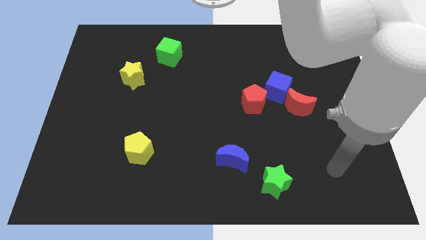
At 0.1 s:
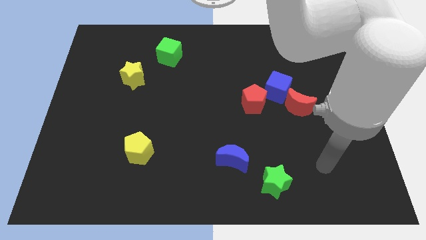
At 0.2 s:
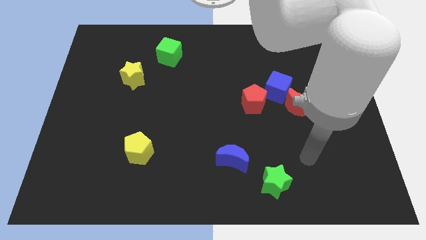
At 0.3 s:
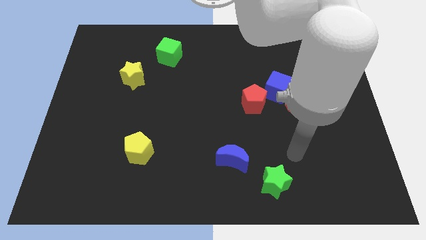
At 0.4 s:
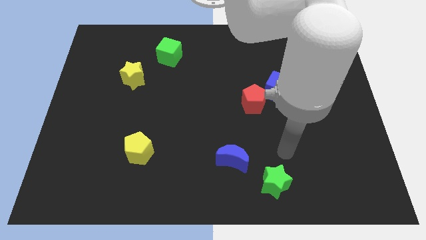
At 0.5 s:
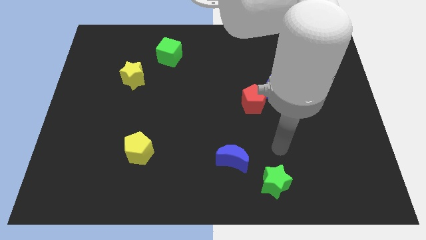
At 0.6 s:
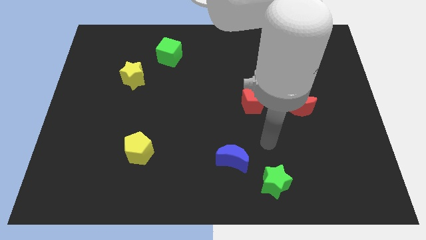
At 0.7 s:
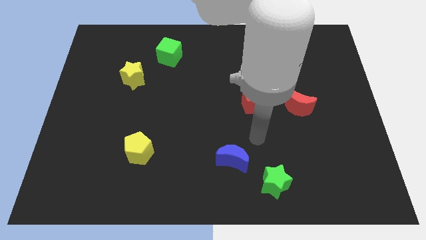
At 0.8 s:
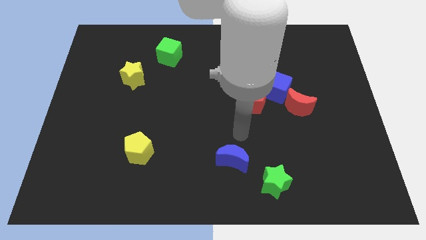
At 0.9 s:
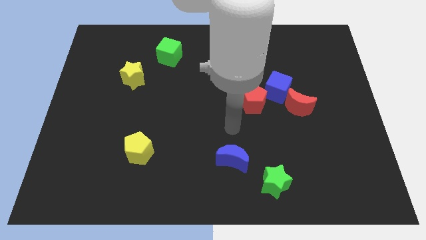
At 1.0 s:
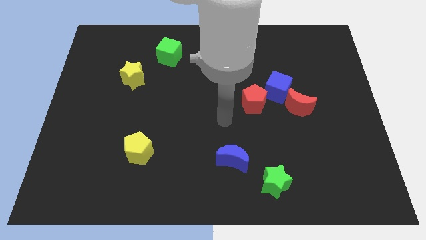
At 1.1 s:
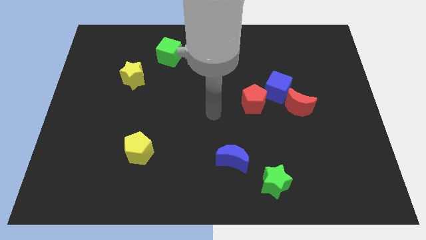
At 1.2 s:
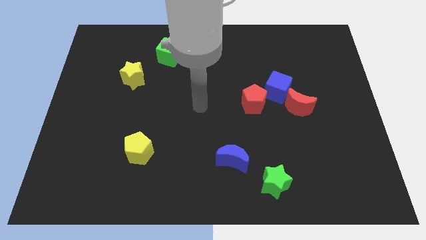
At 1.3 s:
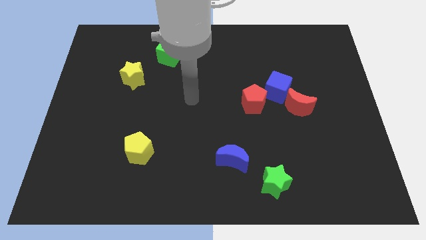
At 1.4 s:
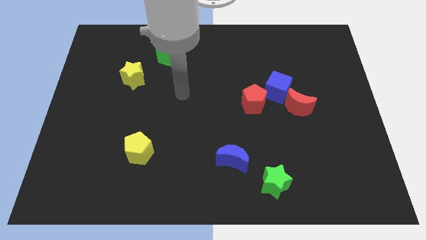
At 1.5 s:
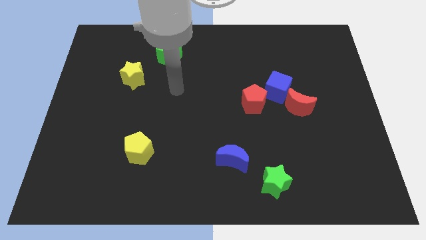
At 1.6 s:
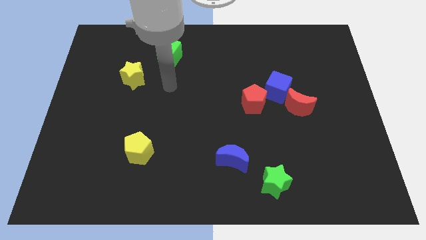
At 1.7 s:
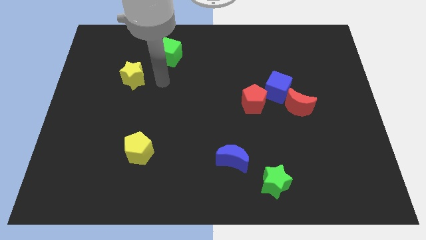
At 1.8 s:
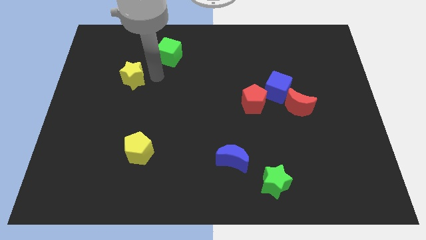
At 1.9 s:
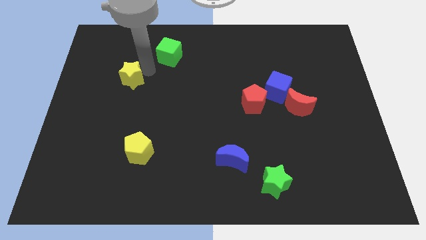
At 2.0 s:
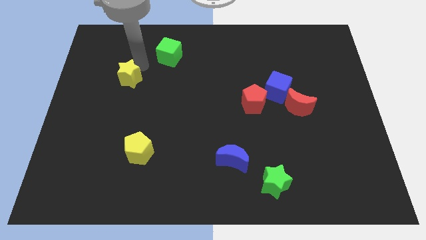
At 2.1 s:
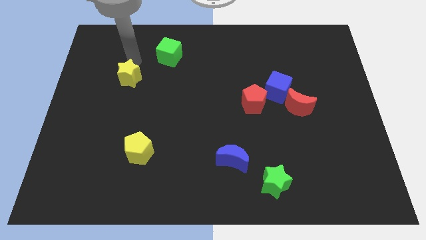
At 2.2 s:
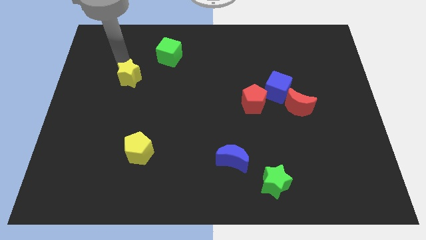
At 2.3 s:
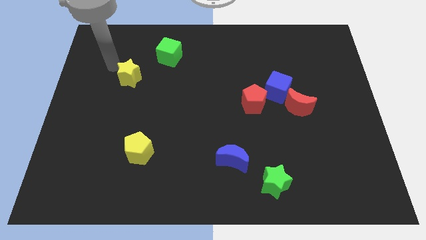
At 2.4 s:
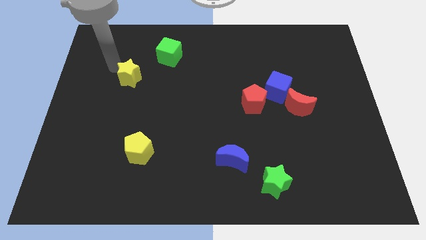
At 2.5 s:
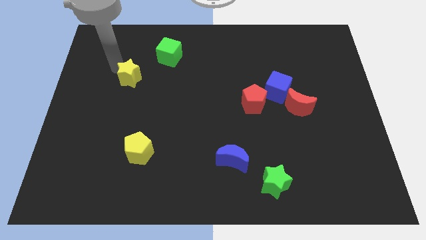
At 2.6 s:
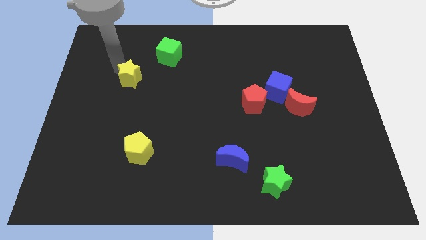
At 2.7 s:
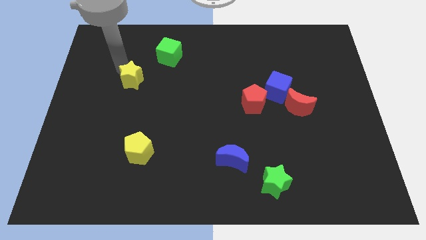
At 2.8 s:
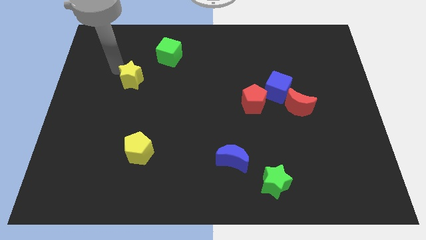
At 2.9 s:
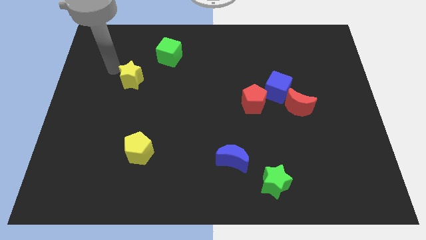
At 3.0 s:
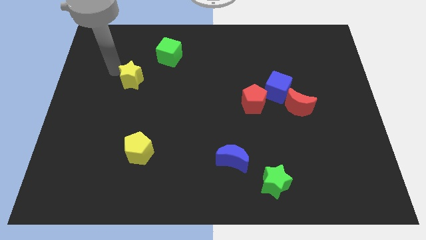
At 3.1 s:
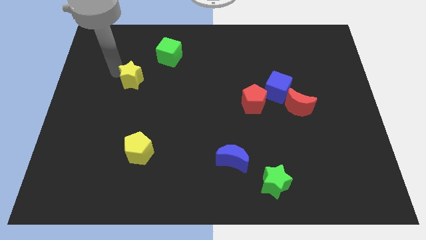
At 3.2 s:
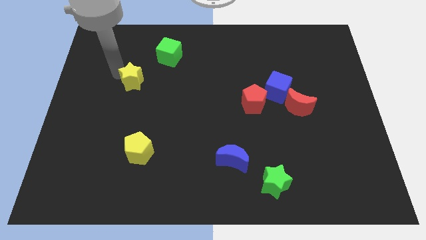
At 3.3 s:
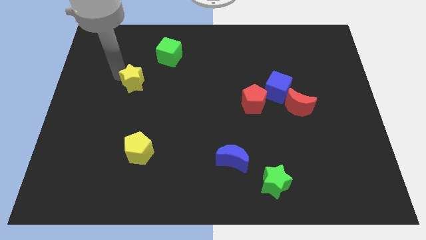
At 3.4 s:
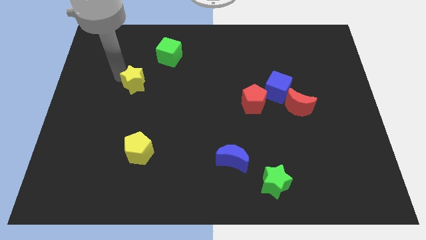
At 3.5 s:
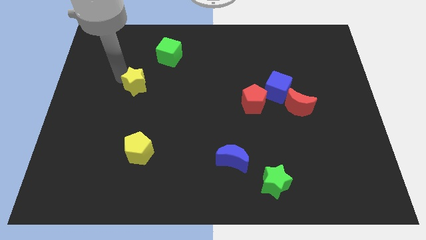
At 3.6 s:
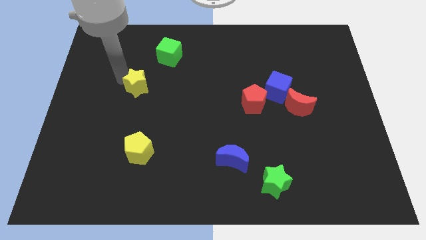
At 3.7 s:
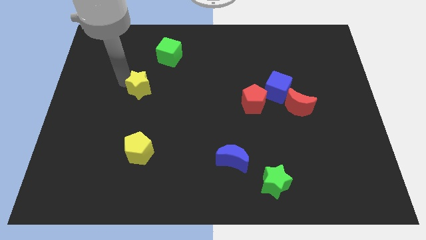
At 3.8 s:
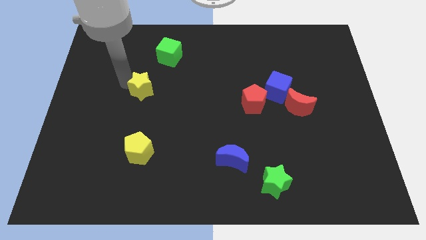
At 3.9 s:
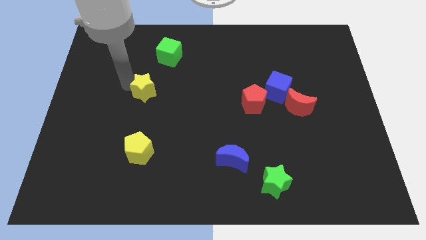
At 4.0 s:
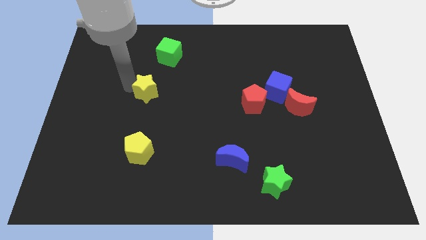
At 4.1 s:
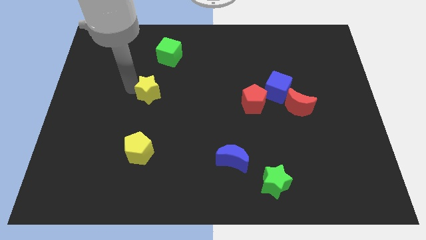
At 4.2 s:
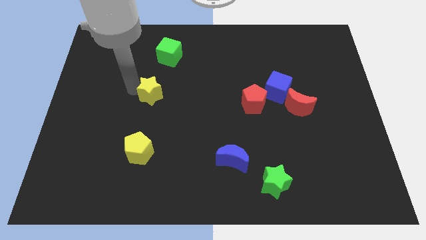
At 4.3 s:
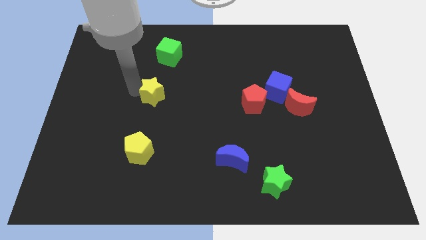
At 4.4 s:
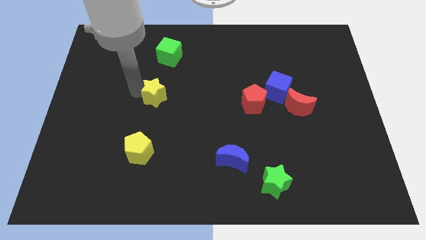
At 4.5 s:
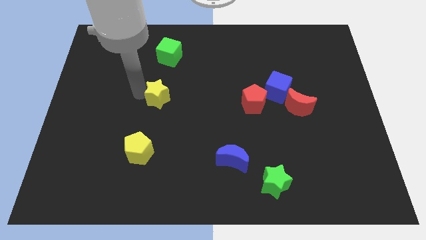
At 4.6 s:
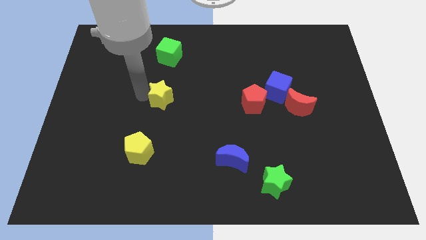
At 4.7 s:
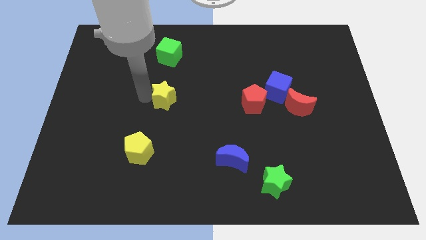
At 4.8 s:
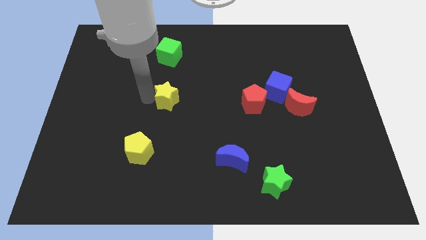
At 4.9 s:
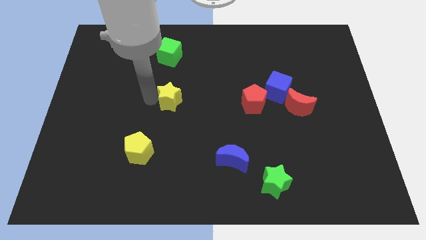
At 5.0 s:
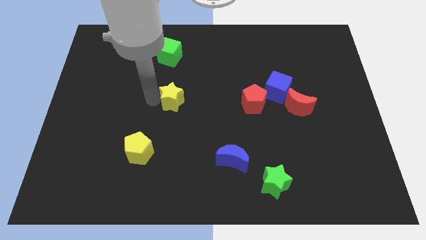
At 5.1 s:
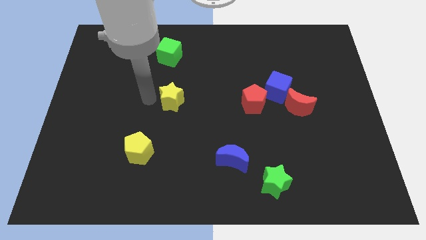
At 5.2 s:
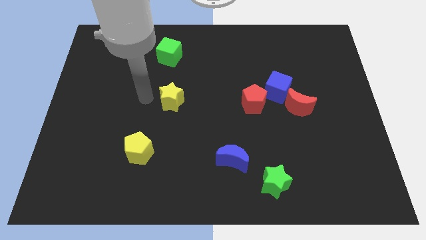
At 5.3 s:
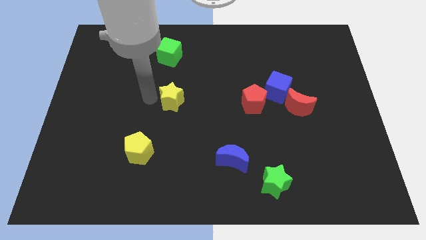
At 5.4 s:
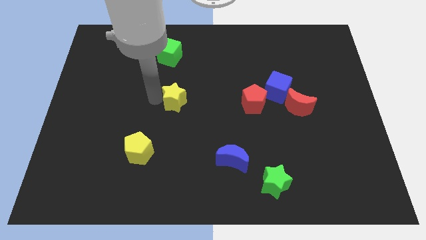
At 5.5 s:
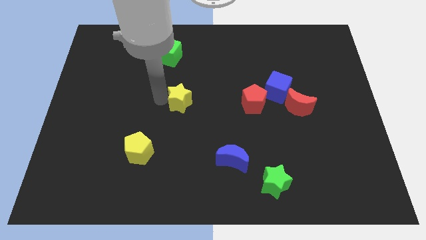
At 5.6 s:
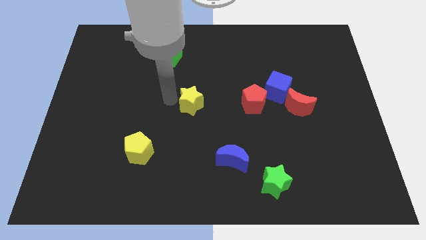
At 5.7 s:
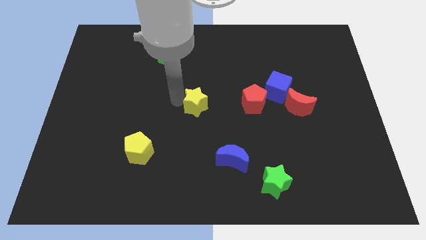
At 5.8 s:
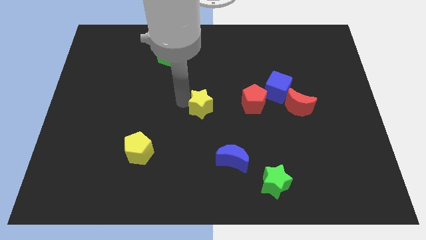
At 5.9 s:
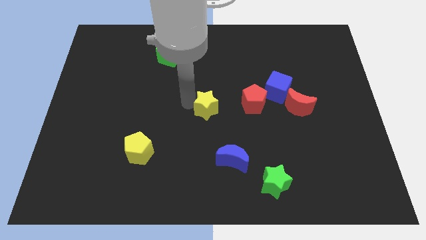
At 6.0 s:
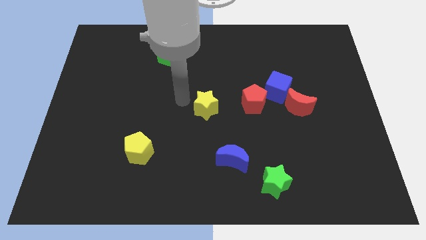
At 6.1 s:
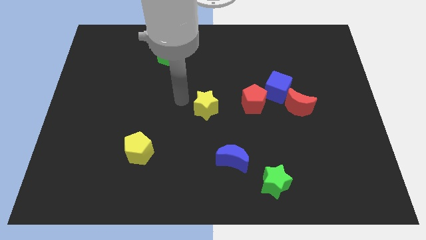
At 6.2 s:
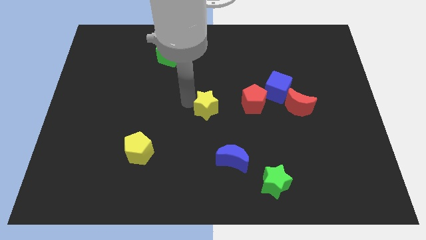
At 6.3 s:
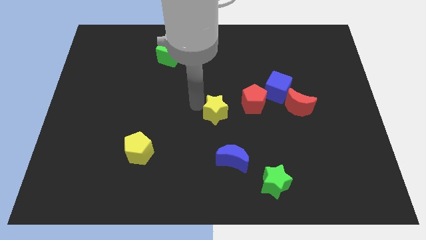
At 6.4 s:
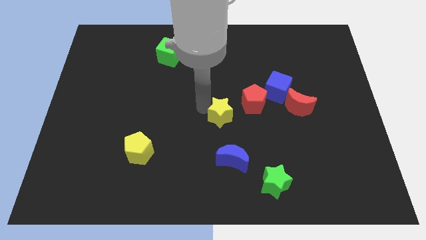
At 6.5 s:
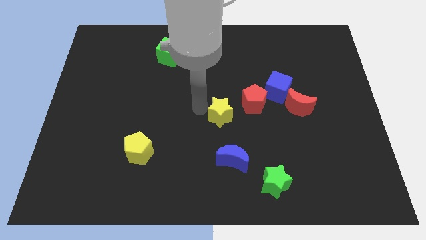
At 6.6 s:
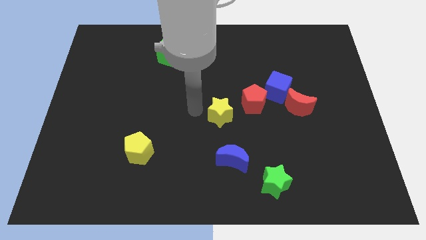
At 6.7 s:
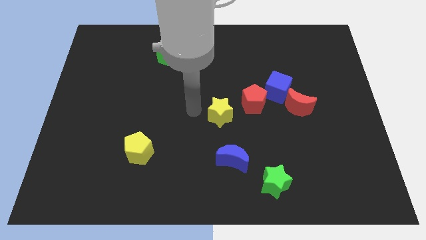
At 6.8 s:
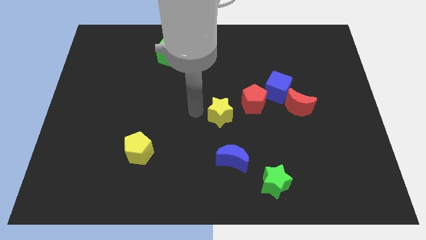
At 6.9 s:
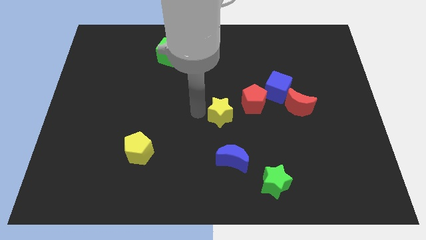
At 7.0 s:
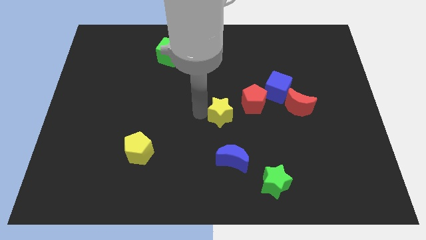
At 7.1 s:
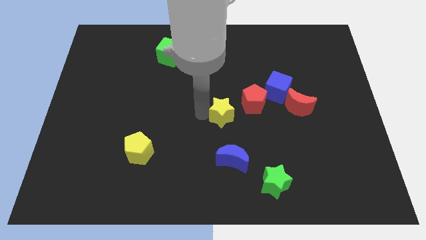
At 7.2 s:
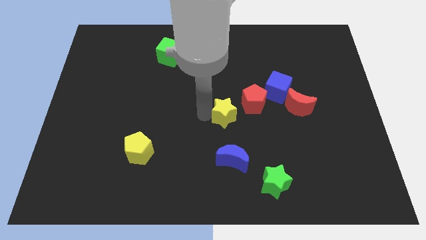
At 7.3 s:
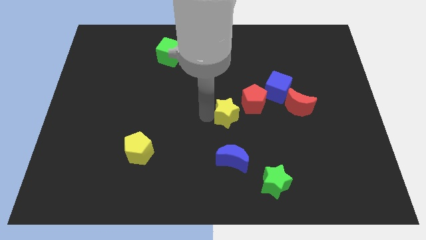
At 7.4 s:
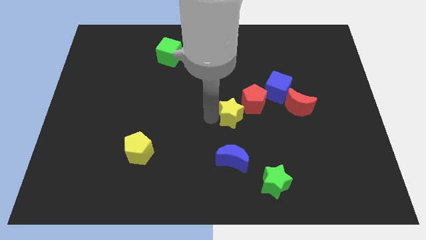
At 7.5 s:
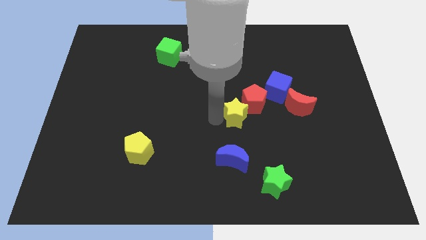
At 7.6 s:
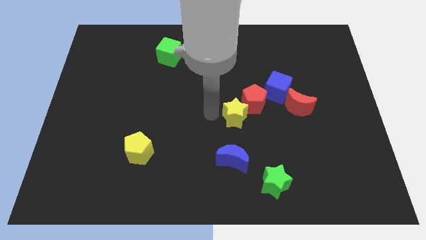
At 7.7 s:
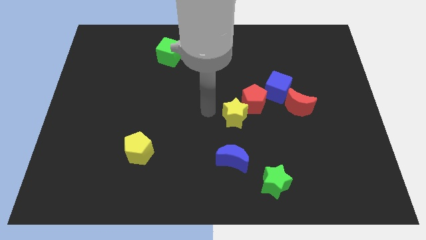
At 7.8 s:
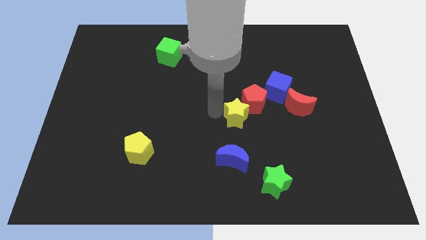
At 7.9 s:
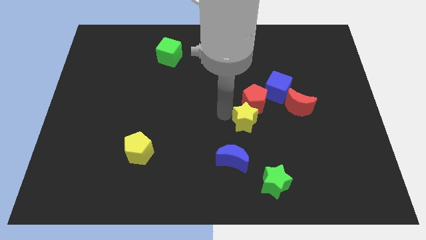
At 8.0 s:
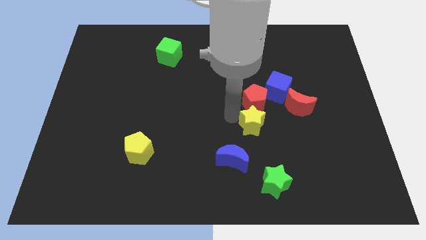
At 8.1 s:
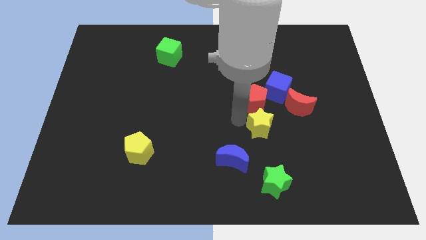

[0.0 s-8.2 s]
slide the yellow star to the bottom left side of the red moon
